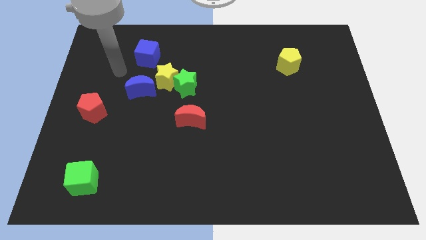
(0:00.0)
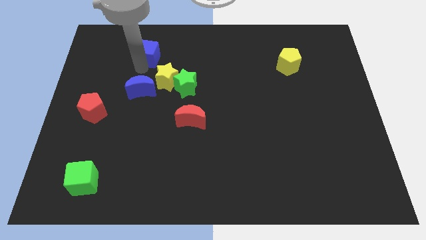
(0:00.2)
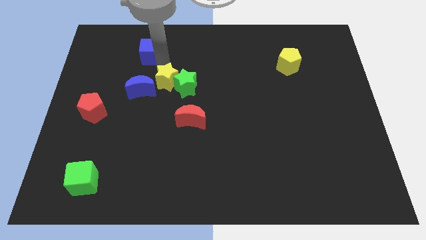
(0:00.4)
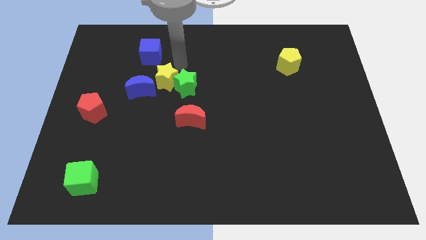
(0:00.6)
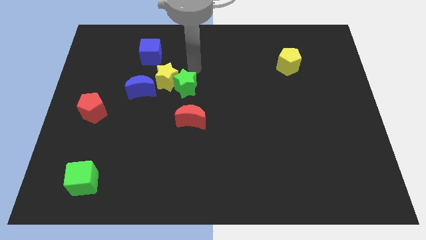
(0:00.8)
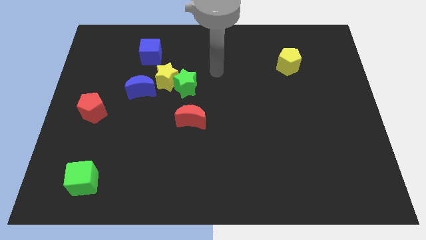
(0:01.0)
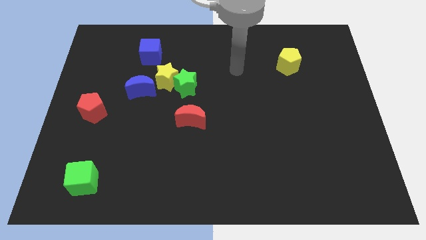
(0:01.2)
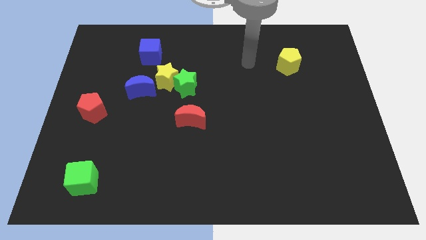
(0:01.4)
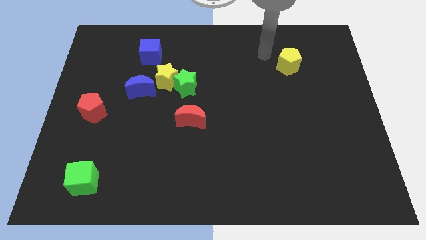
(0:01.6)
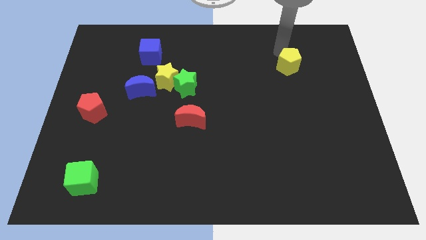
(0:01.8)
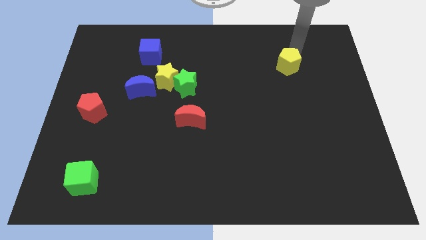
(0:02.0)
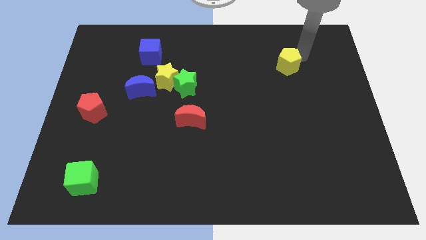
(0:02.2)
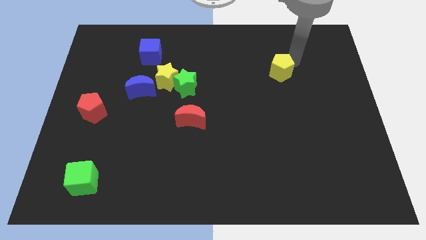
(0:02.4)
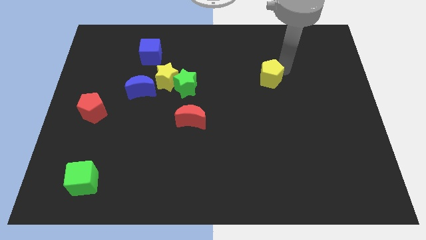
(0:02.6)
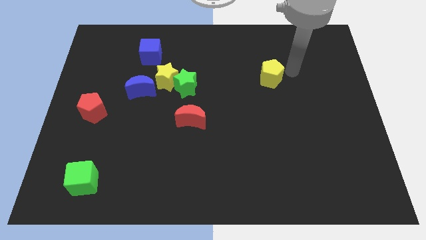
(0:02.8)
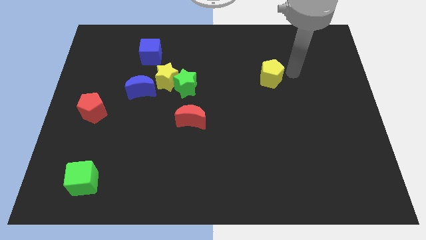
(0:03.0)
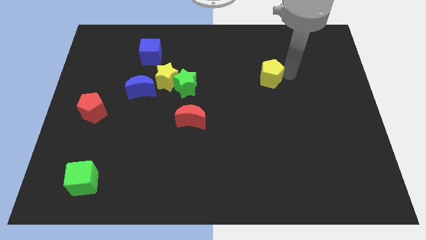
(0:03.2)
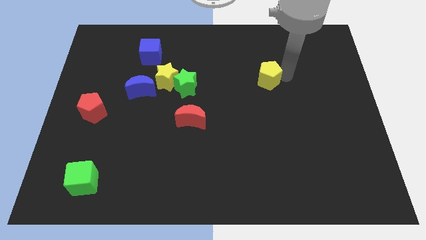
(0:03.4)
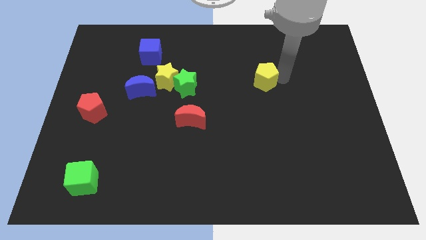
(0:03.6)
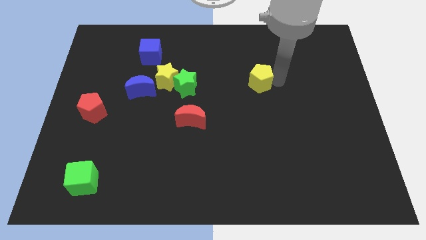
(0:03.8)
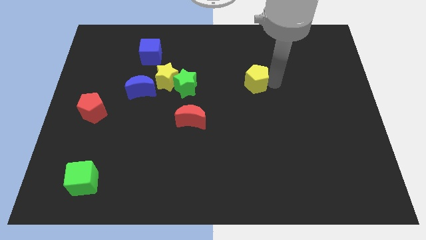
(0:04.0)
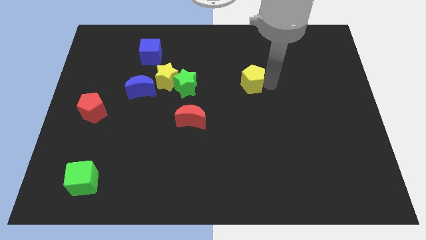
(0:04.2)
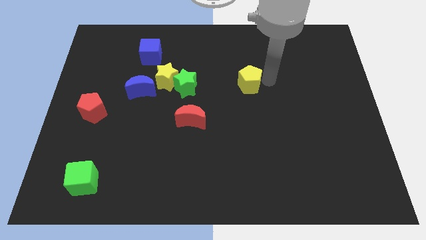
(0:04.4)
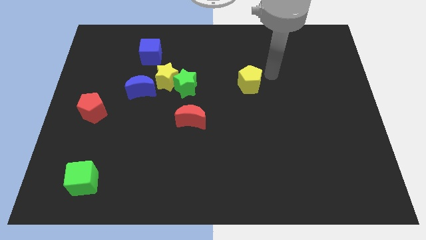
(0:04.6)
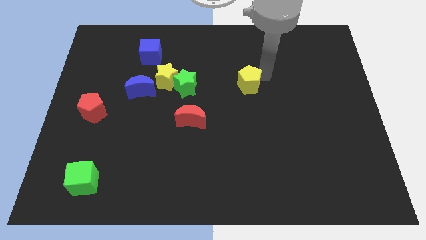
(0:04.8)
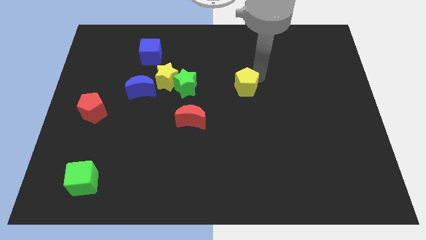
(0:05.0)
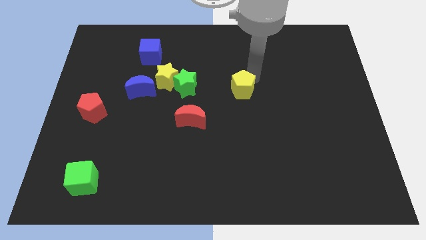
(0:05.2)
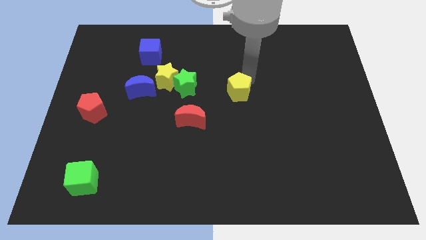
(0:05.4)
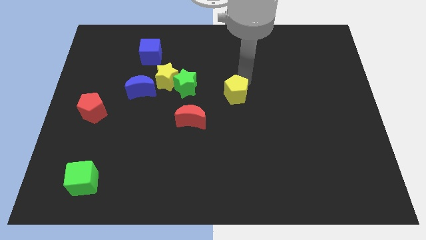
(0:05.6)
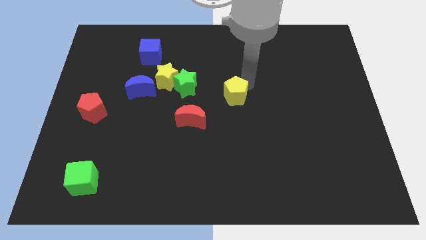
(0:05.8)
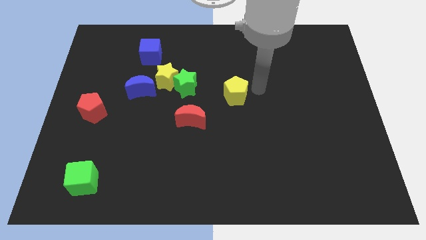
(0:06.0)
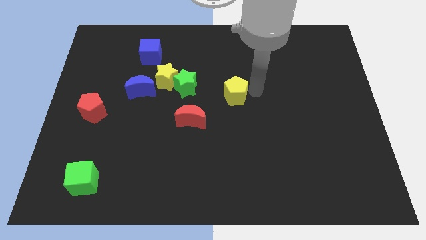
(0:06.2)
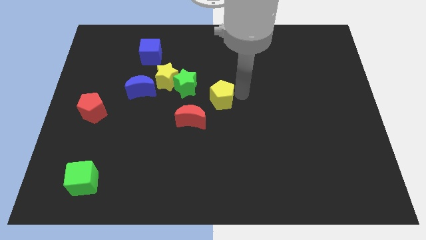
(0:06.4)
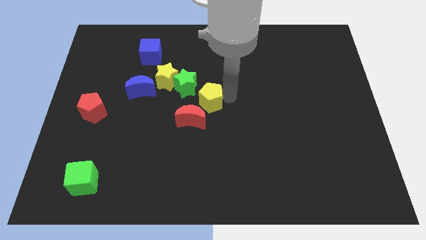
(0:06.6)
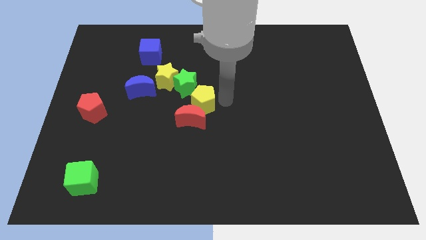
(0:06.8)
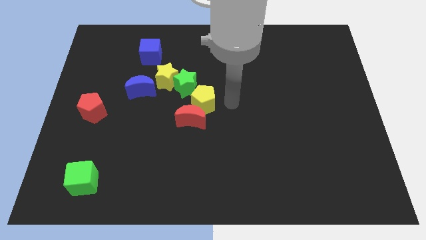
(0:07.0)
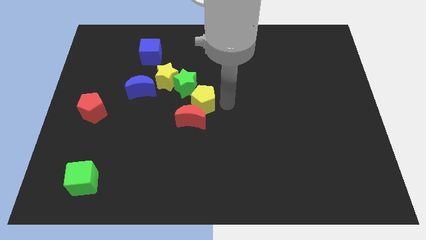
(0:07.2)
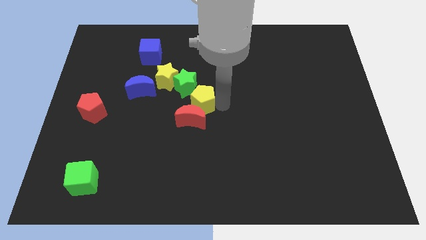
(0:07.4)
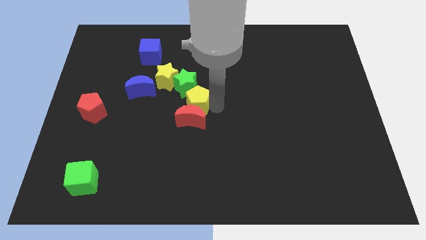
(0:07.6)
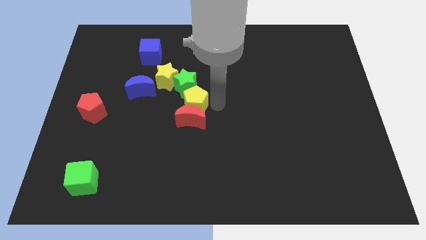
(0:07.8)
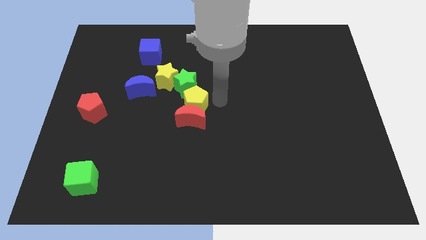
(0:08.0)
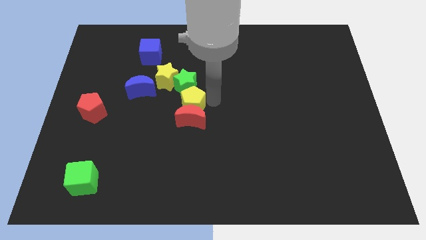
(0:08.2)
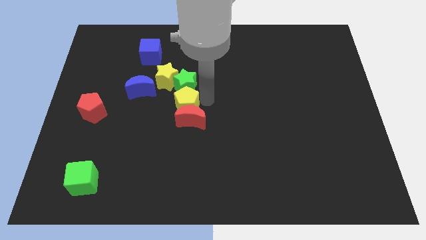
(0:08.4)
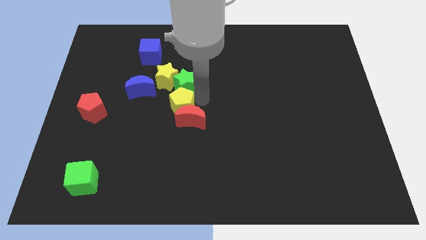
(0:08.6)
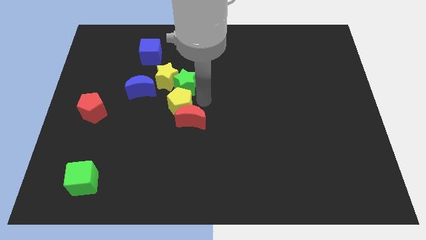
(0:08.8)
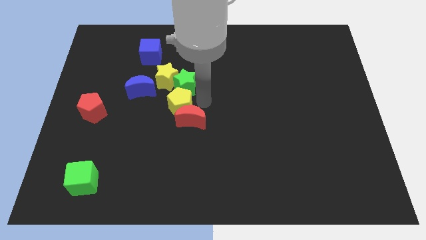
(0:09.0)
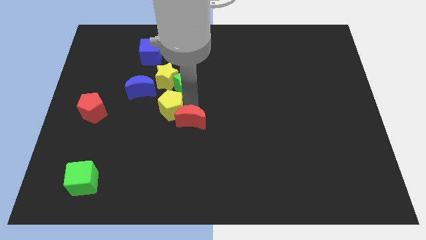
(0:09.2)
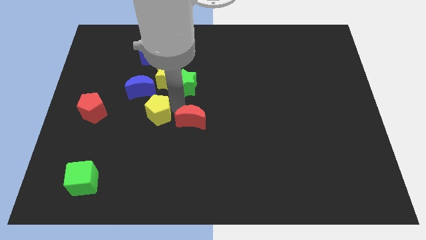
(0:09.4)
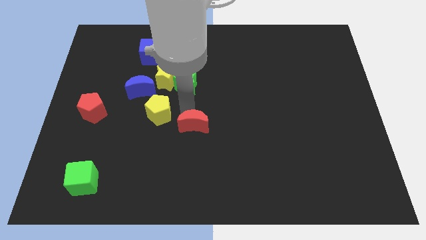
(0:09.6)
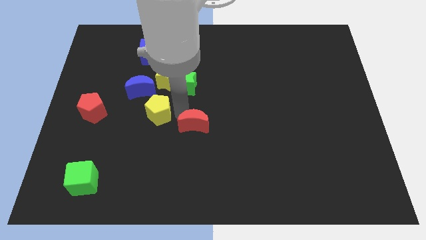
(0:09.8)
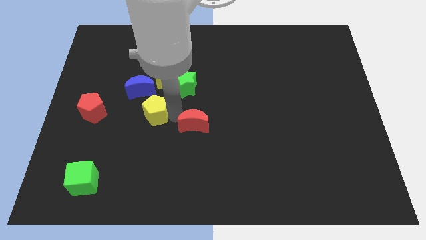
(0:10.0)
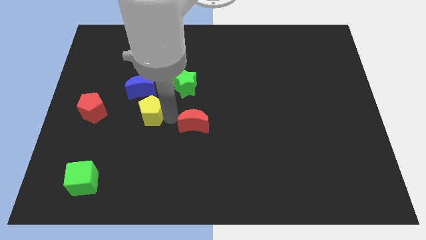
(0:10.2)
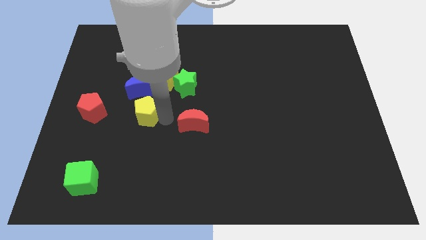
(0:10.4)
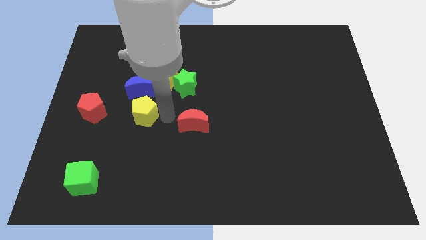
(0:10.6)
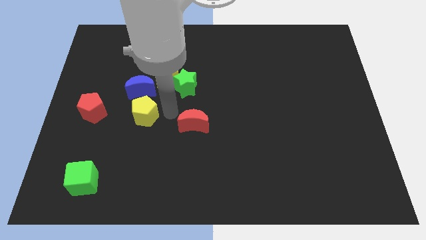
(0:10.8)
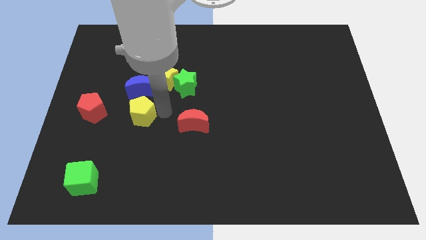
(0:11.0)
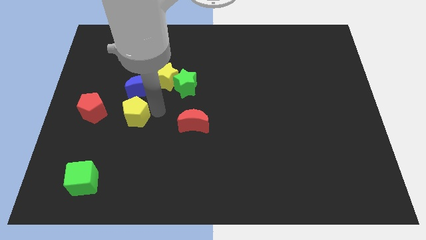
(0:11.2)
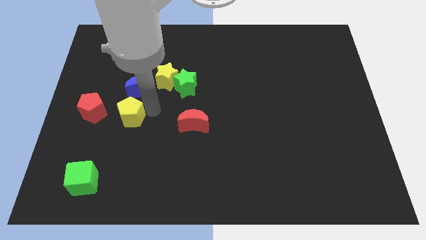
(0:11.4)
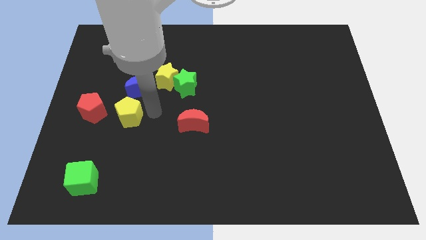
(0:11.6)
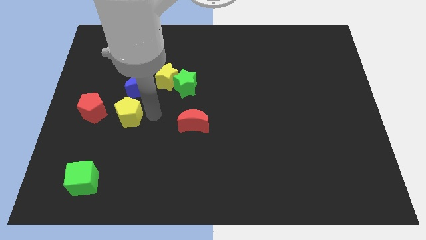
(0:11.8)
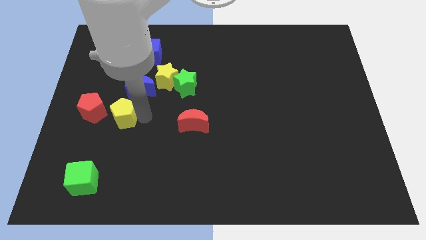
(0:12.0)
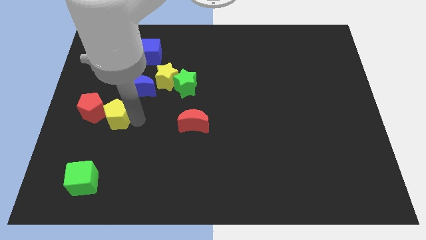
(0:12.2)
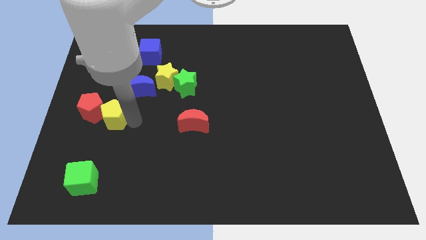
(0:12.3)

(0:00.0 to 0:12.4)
move the yellow pentagon towards the red pentagon
